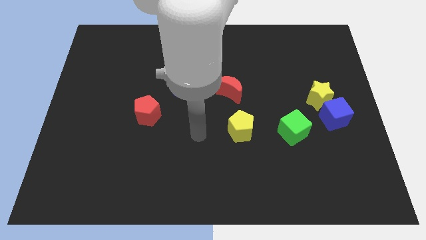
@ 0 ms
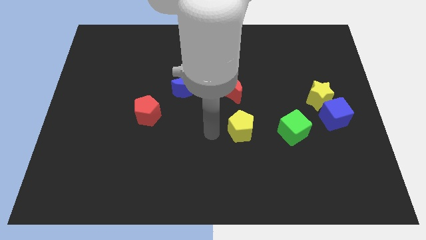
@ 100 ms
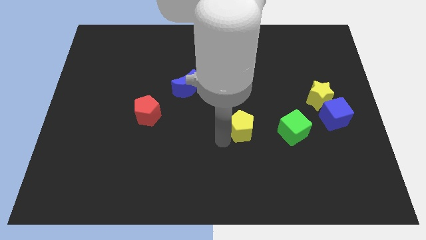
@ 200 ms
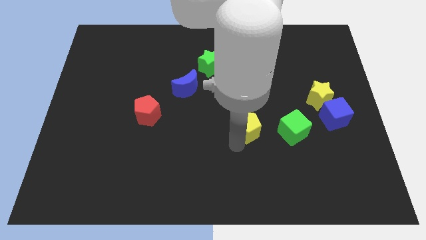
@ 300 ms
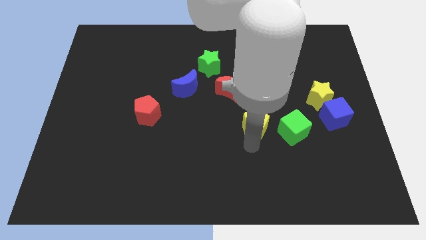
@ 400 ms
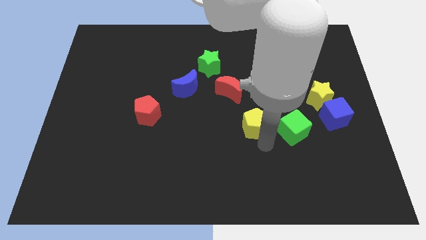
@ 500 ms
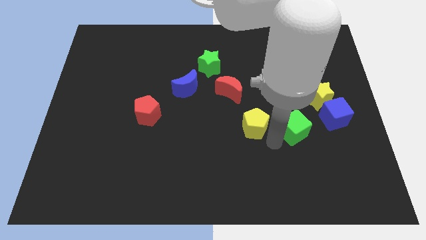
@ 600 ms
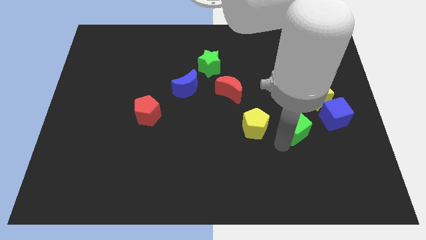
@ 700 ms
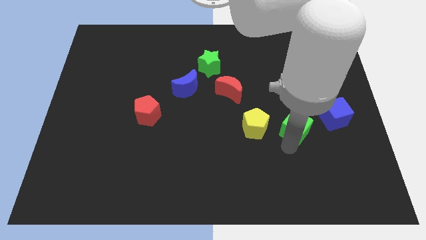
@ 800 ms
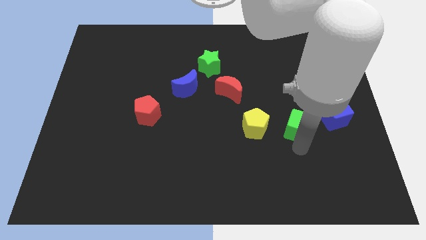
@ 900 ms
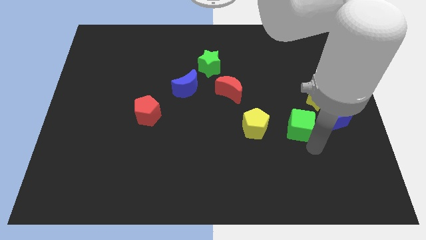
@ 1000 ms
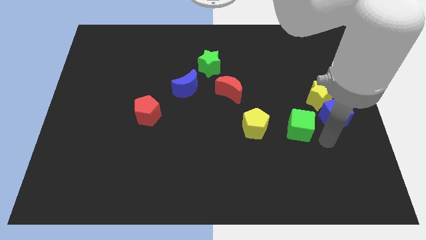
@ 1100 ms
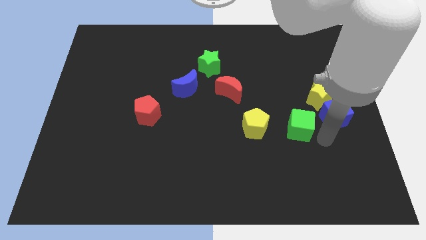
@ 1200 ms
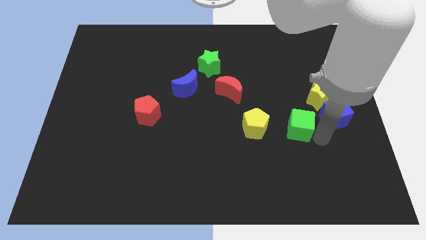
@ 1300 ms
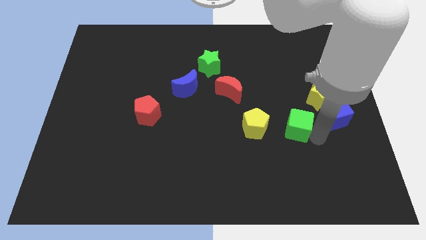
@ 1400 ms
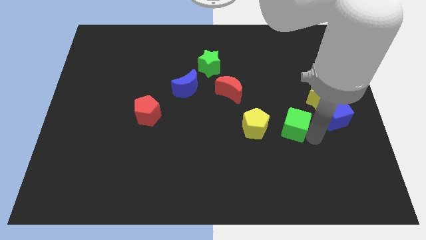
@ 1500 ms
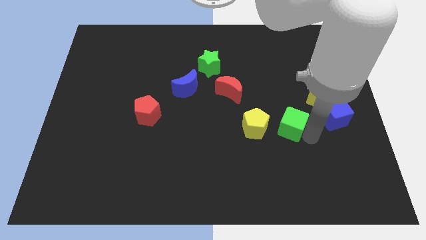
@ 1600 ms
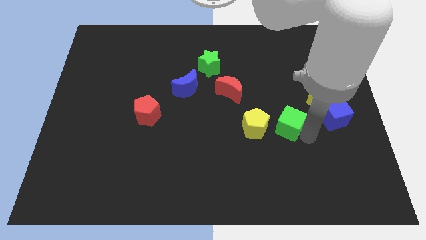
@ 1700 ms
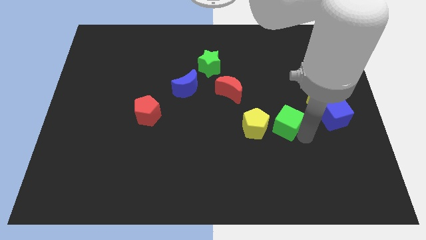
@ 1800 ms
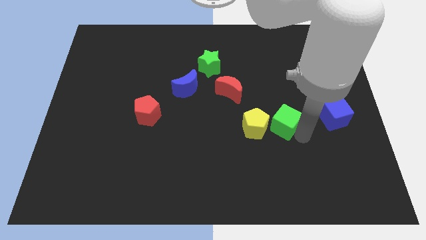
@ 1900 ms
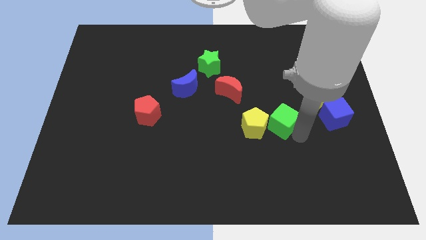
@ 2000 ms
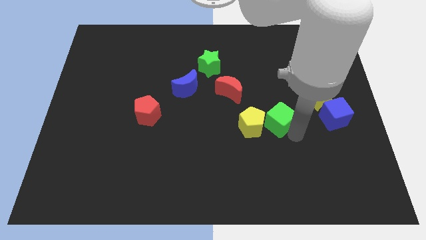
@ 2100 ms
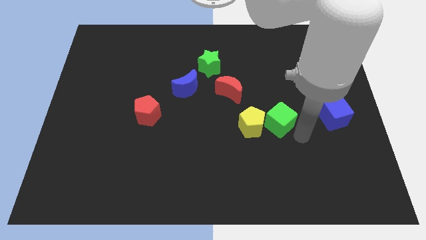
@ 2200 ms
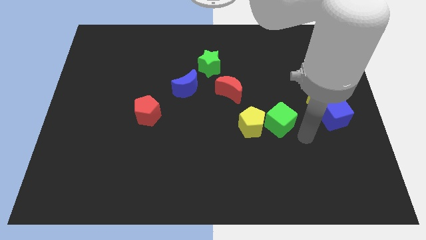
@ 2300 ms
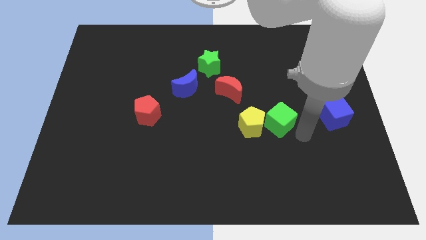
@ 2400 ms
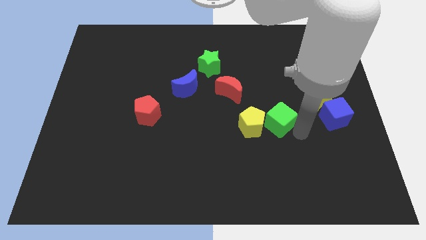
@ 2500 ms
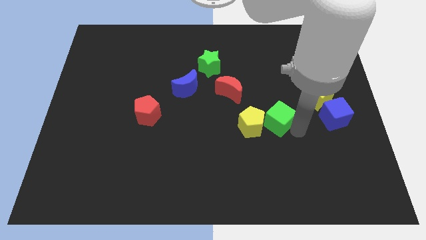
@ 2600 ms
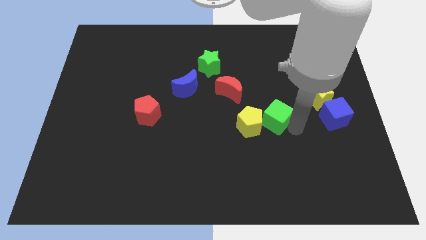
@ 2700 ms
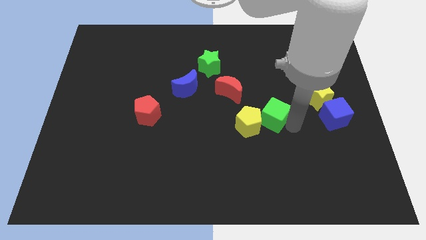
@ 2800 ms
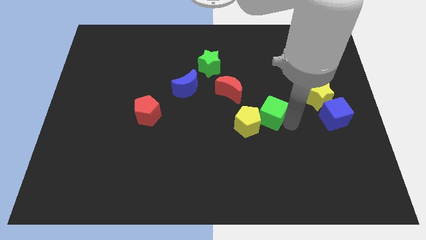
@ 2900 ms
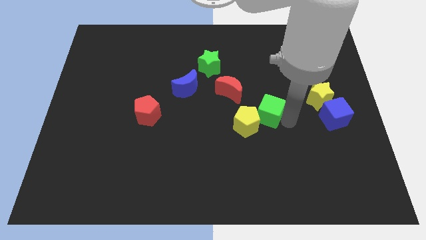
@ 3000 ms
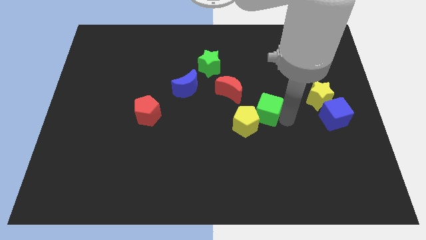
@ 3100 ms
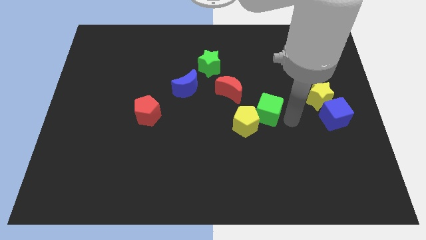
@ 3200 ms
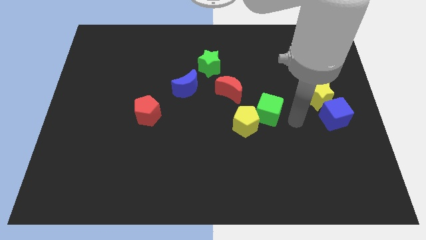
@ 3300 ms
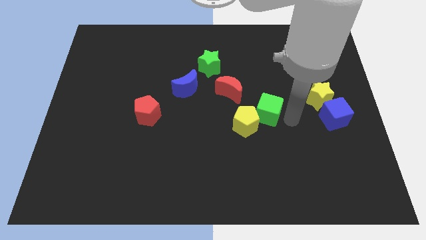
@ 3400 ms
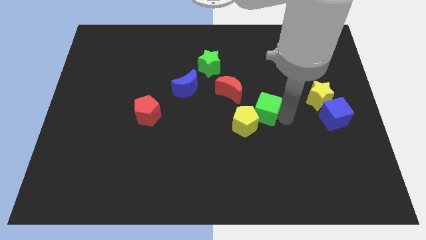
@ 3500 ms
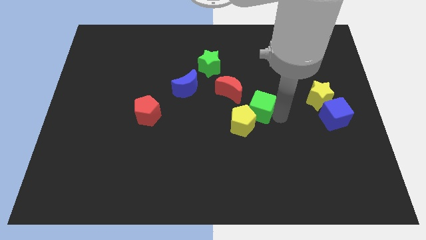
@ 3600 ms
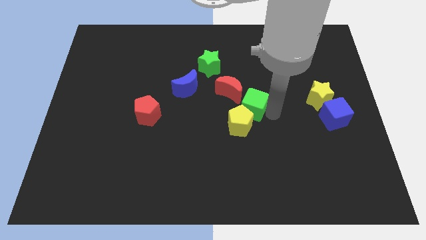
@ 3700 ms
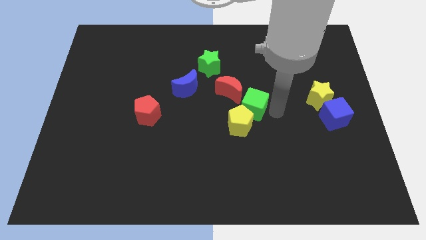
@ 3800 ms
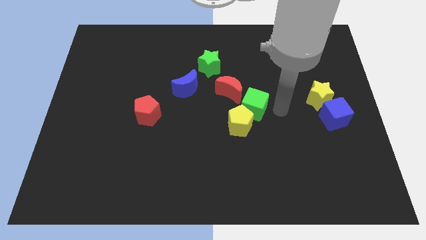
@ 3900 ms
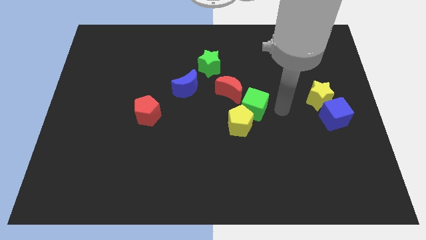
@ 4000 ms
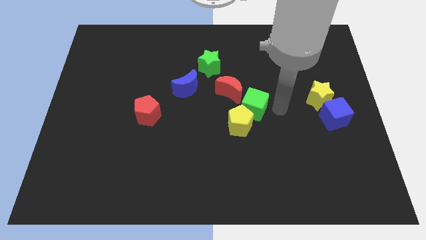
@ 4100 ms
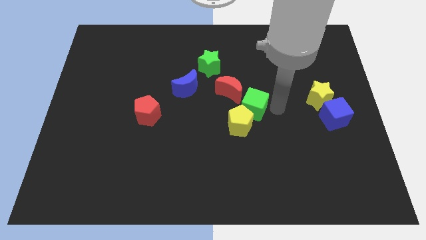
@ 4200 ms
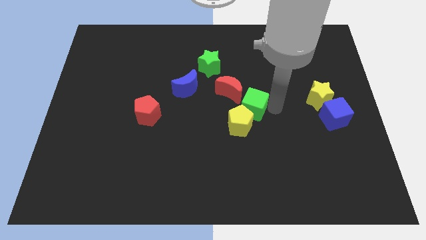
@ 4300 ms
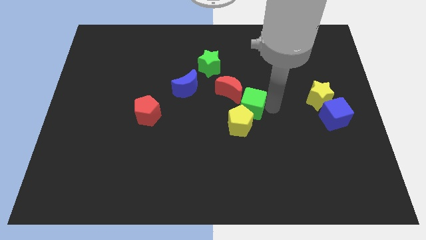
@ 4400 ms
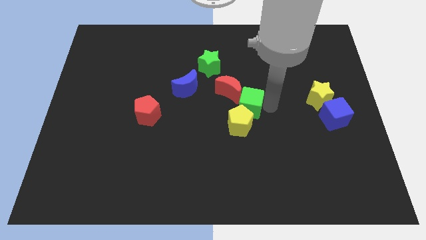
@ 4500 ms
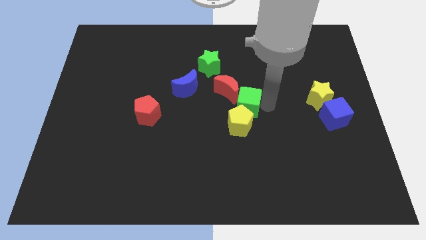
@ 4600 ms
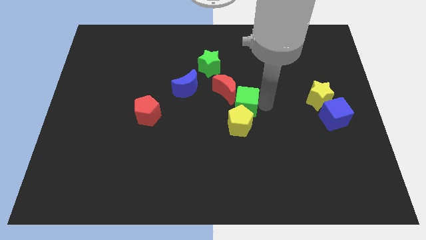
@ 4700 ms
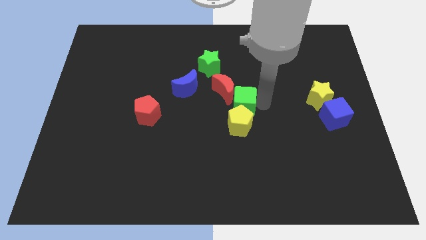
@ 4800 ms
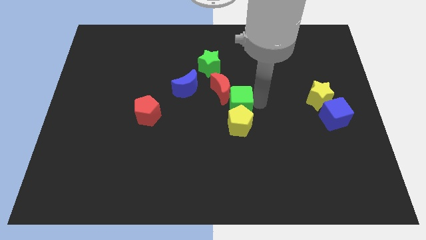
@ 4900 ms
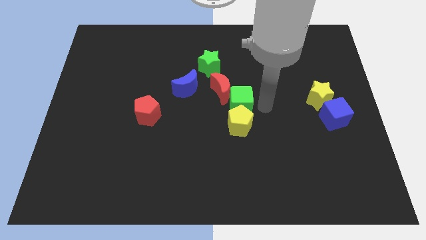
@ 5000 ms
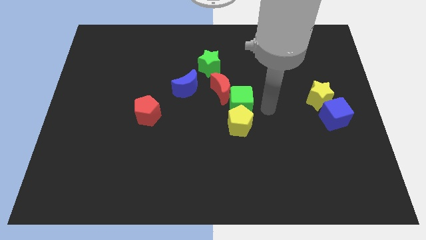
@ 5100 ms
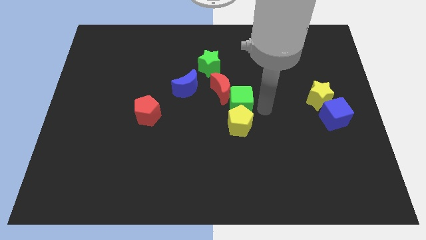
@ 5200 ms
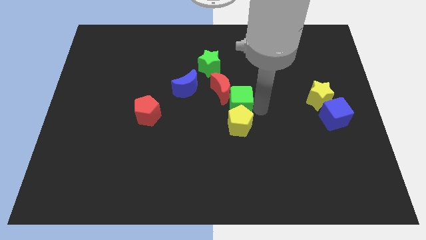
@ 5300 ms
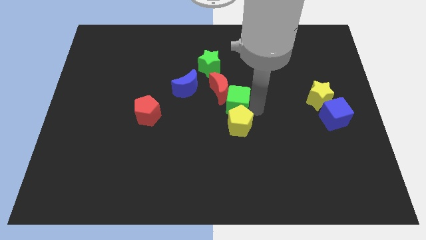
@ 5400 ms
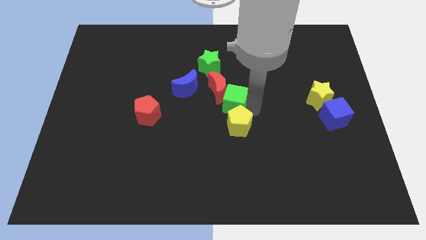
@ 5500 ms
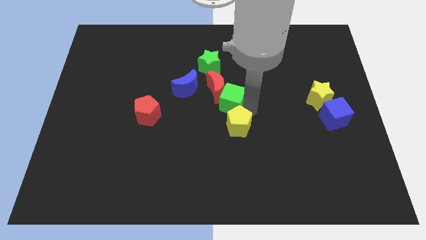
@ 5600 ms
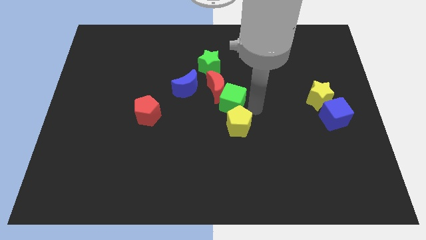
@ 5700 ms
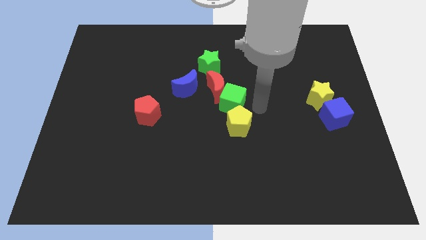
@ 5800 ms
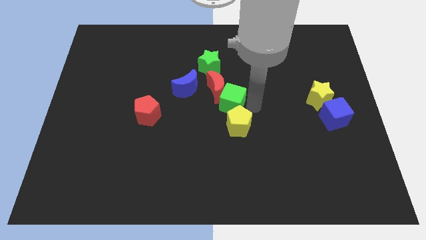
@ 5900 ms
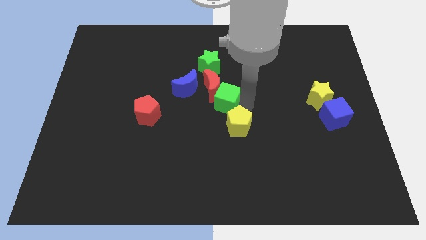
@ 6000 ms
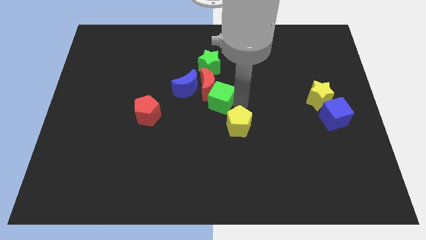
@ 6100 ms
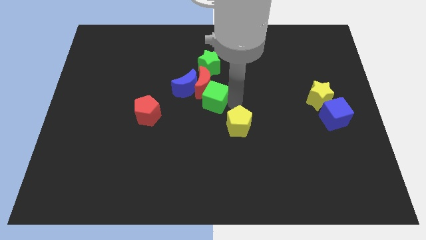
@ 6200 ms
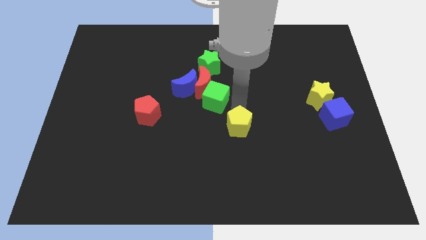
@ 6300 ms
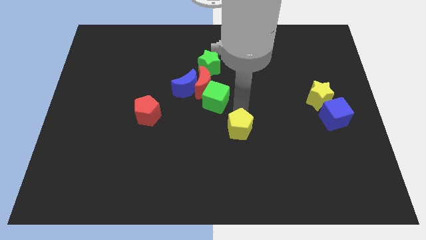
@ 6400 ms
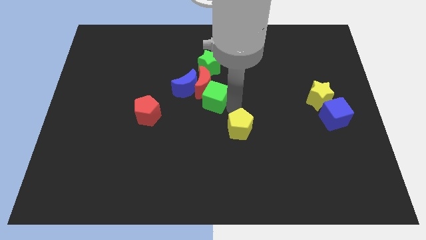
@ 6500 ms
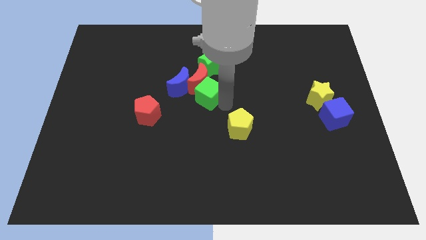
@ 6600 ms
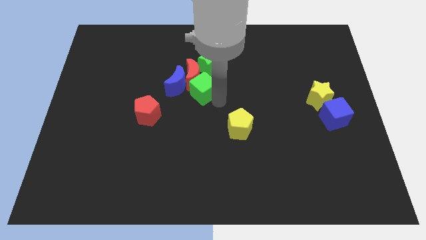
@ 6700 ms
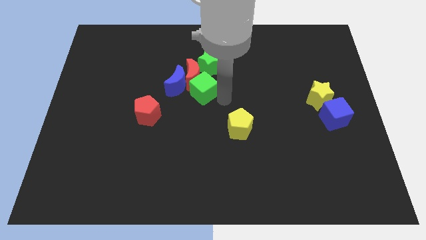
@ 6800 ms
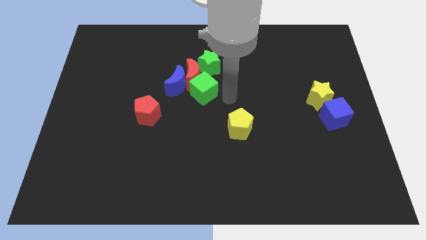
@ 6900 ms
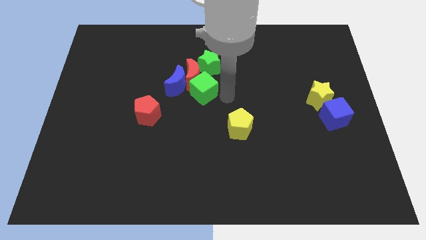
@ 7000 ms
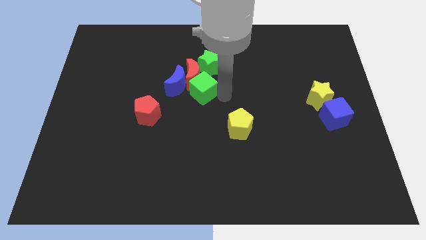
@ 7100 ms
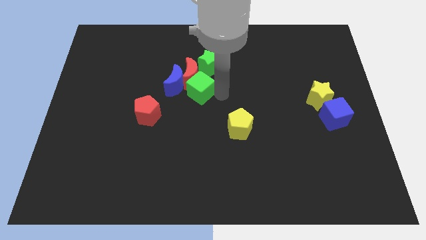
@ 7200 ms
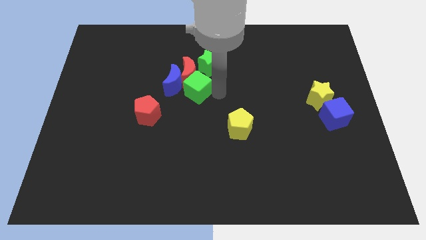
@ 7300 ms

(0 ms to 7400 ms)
slide the green cube towards the blue moon
